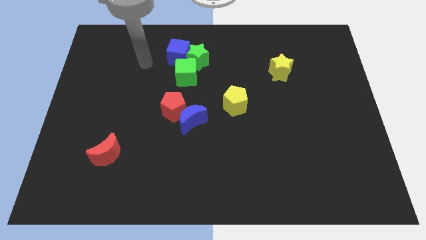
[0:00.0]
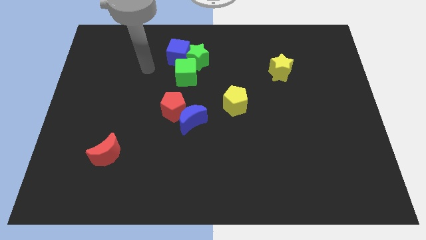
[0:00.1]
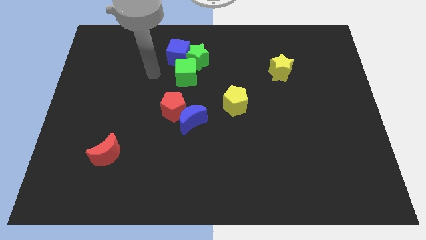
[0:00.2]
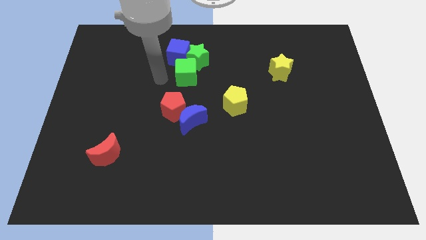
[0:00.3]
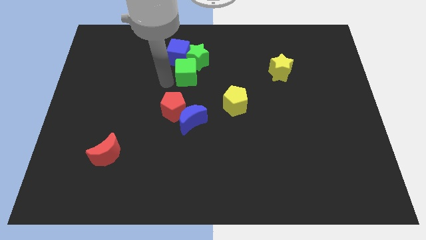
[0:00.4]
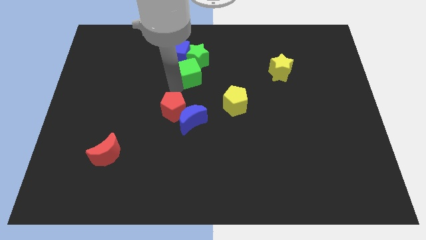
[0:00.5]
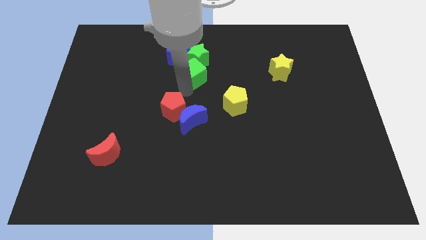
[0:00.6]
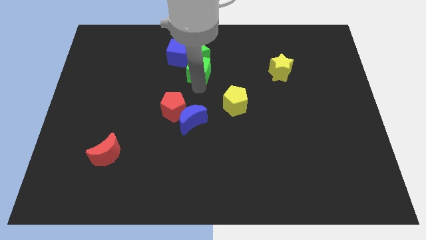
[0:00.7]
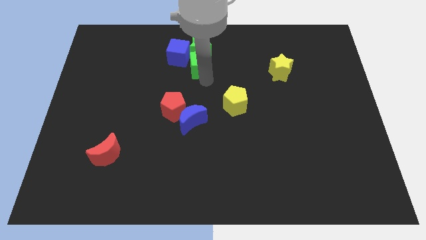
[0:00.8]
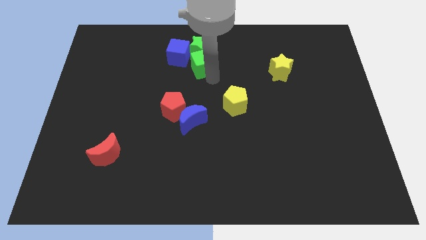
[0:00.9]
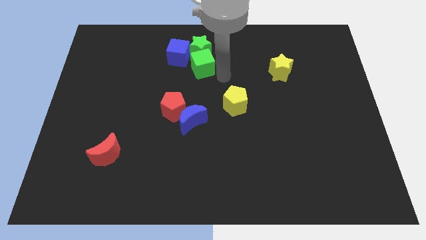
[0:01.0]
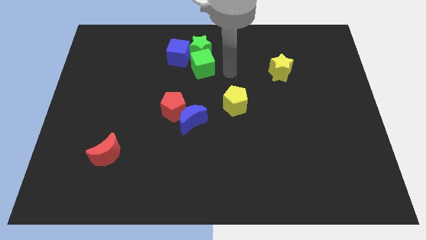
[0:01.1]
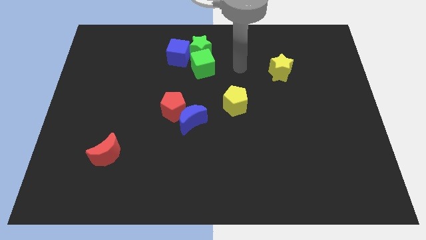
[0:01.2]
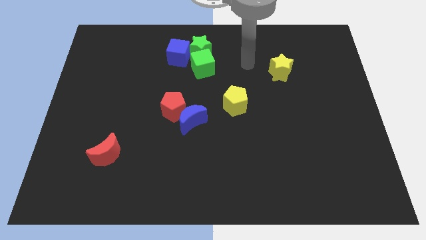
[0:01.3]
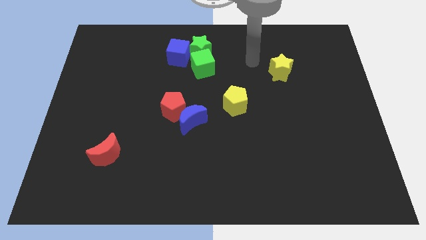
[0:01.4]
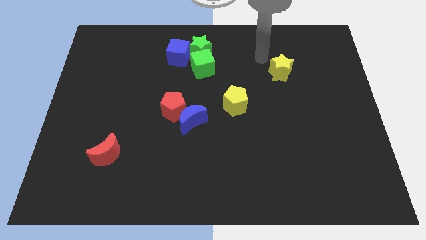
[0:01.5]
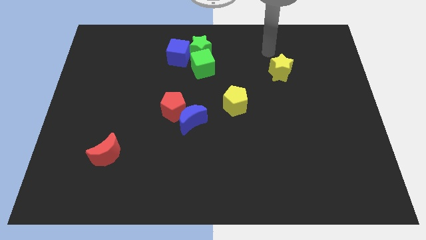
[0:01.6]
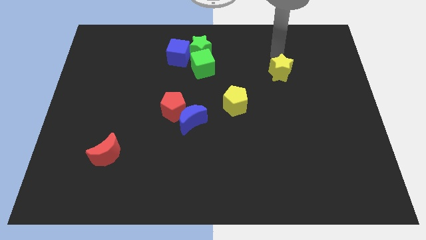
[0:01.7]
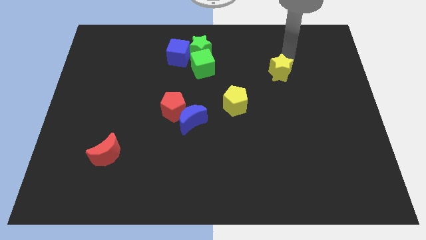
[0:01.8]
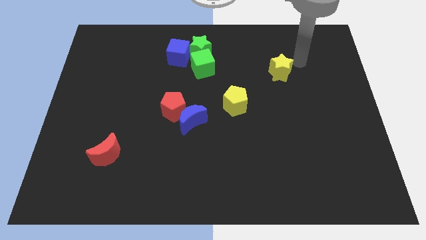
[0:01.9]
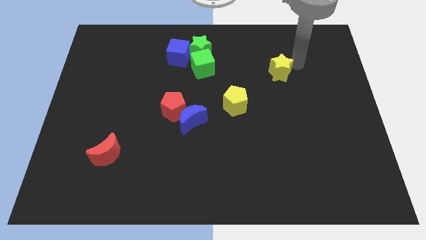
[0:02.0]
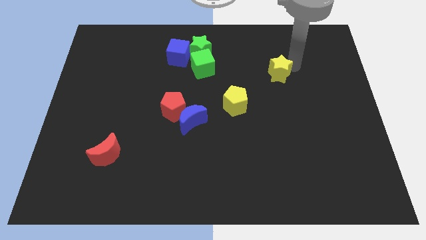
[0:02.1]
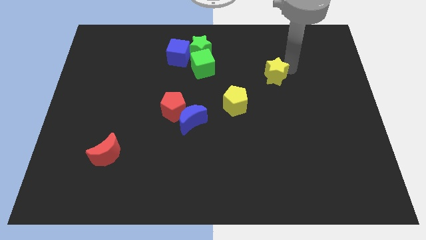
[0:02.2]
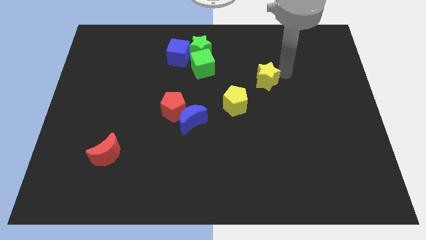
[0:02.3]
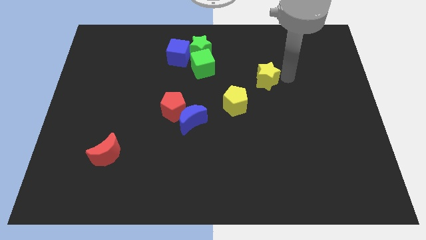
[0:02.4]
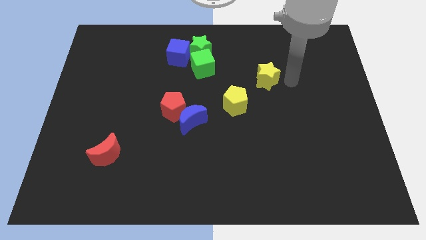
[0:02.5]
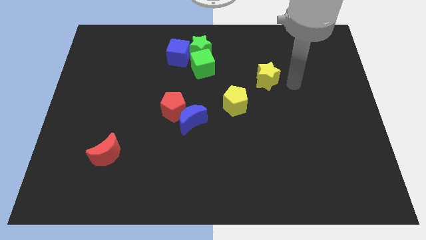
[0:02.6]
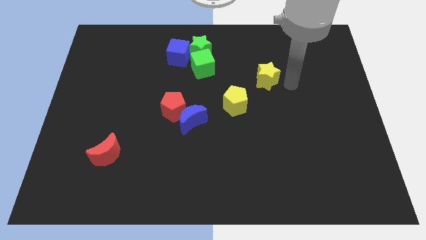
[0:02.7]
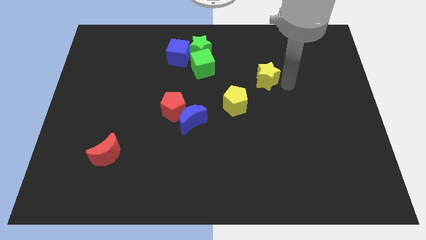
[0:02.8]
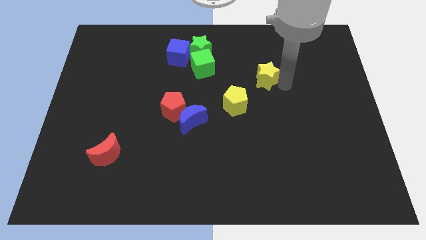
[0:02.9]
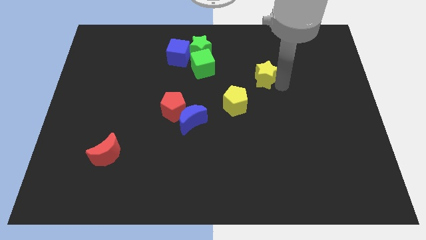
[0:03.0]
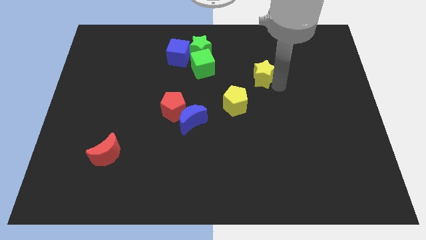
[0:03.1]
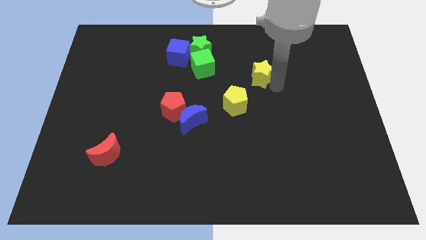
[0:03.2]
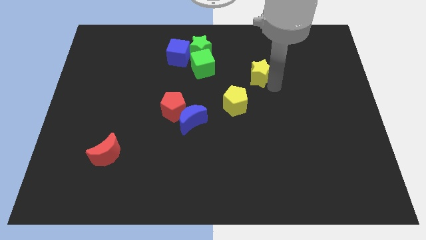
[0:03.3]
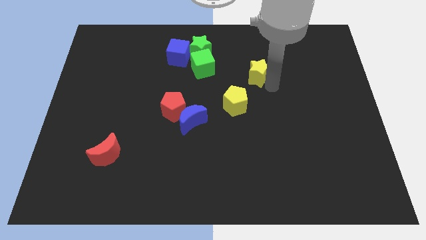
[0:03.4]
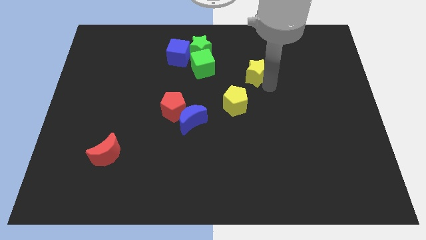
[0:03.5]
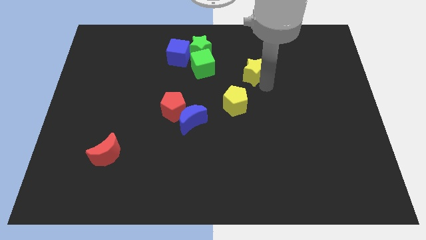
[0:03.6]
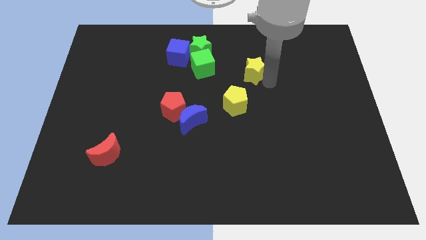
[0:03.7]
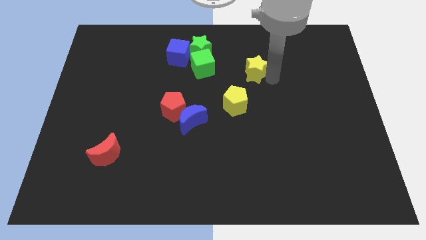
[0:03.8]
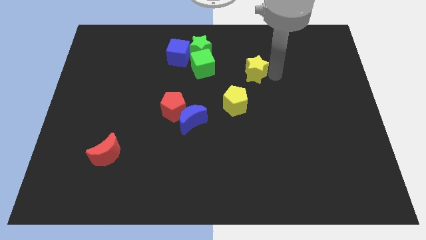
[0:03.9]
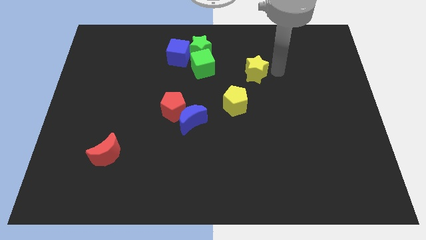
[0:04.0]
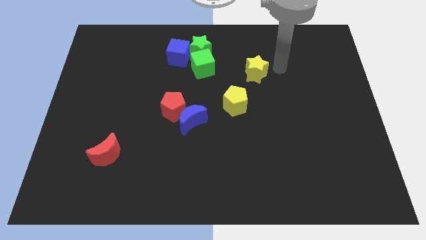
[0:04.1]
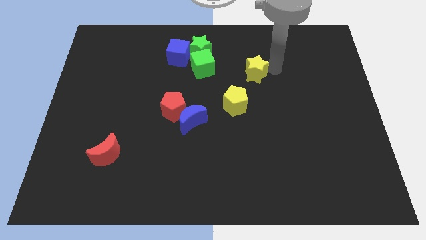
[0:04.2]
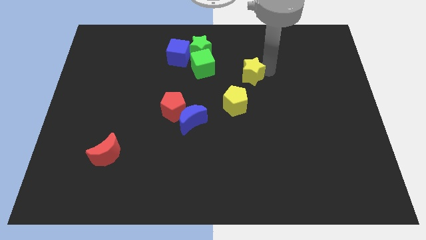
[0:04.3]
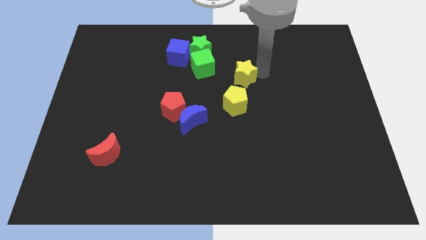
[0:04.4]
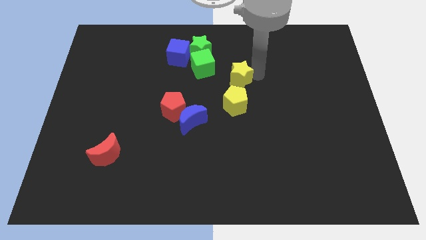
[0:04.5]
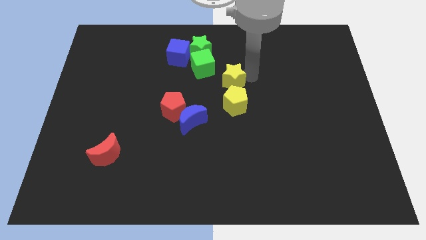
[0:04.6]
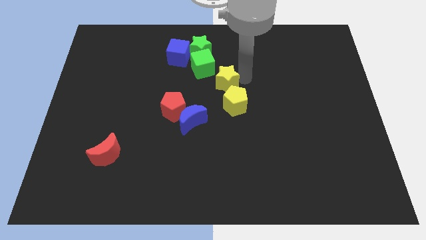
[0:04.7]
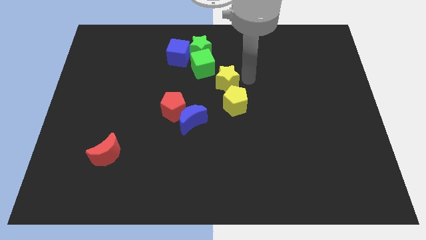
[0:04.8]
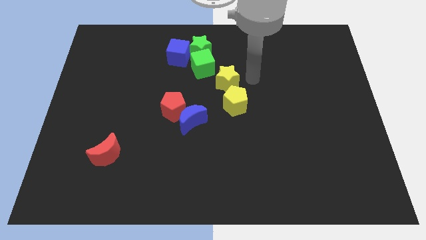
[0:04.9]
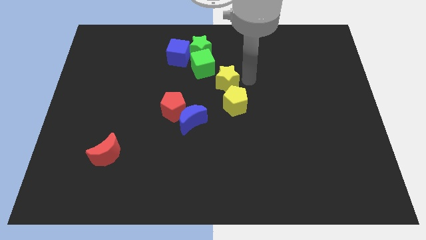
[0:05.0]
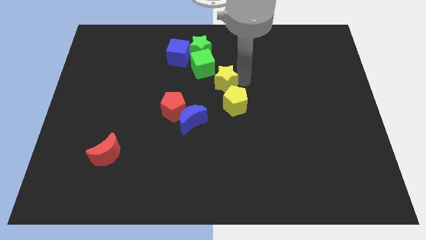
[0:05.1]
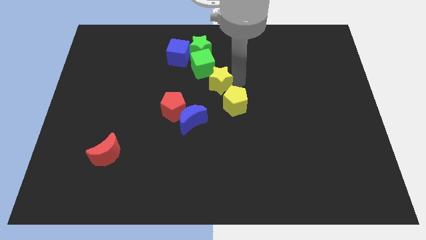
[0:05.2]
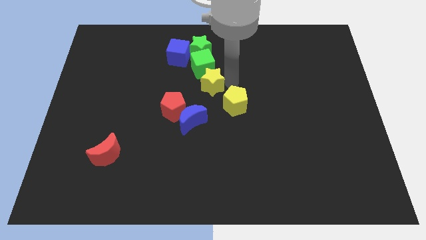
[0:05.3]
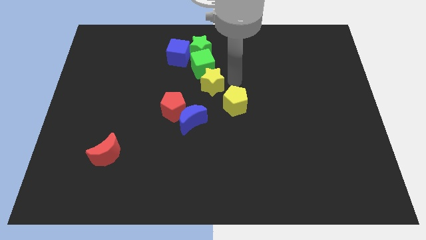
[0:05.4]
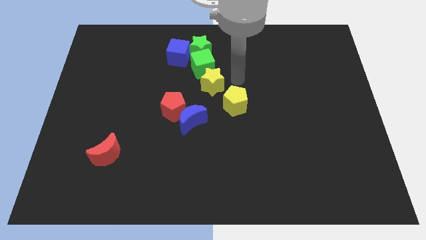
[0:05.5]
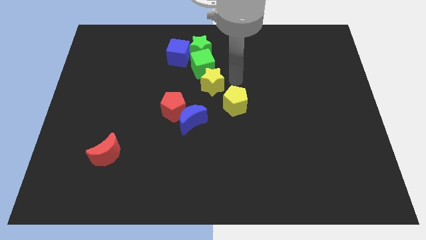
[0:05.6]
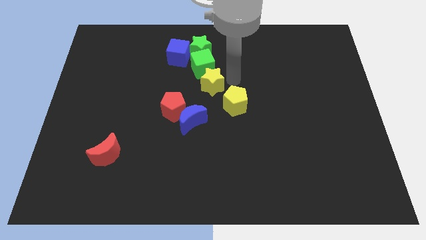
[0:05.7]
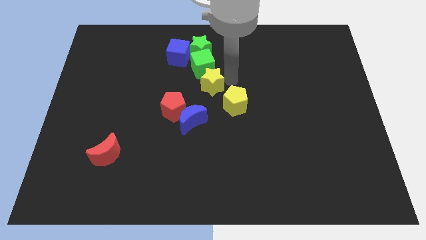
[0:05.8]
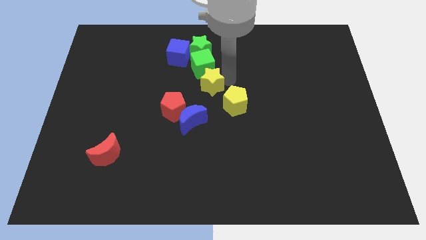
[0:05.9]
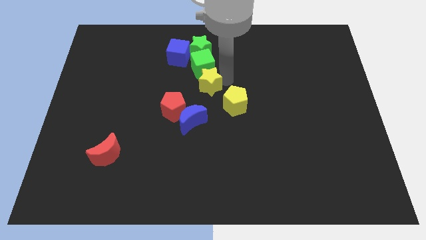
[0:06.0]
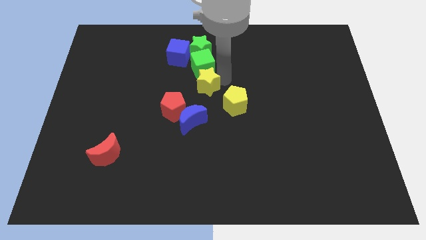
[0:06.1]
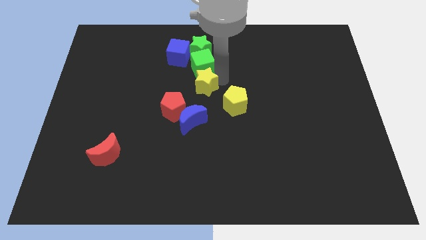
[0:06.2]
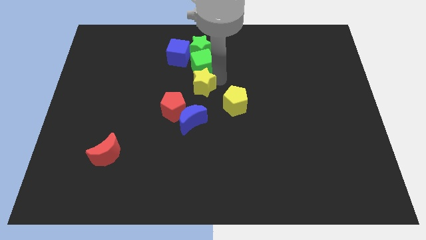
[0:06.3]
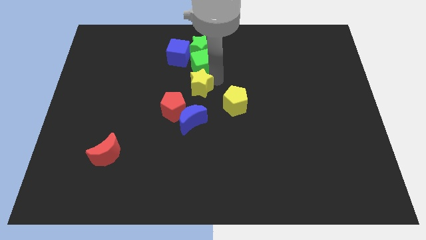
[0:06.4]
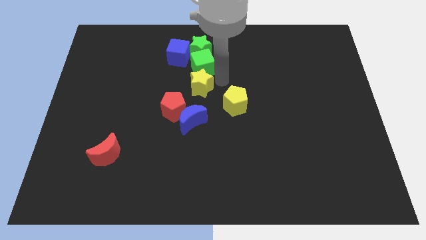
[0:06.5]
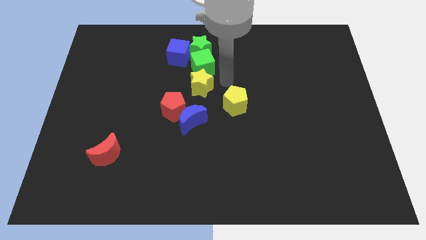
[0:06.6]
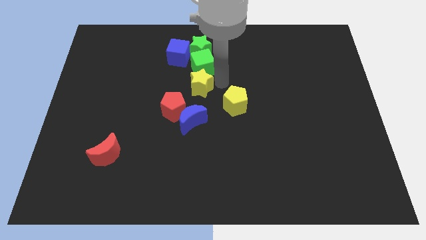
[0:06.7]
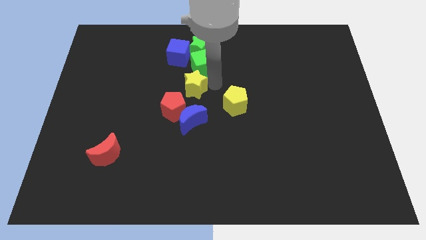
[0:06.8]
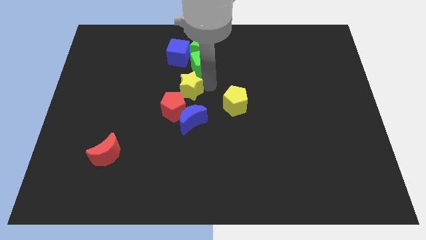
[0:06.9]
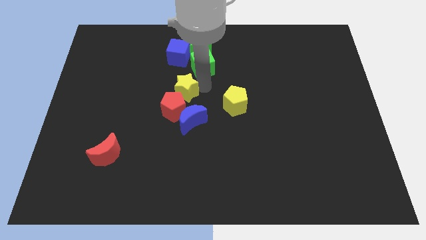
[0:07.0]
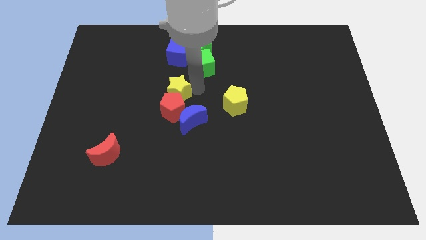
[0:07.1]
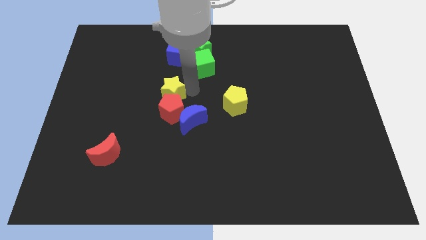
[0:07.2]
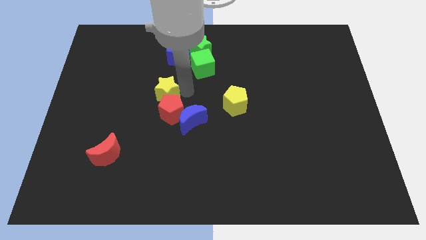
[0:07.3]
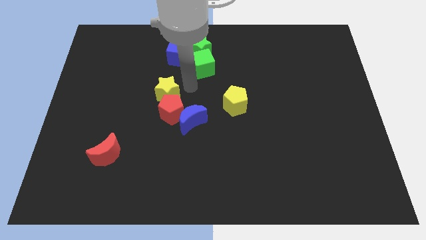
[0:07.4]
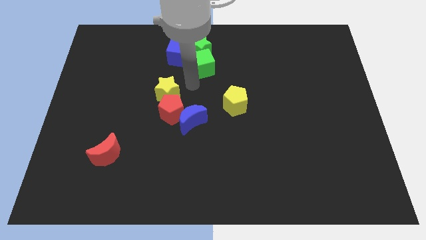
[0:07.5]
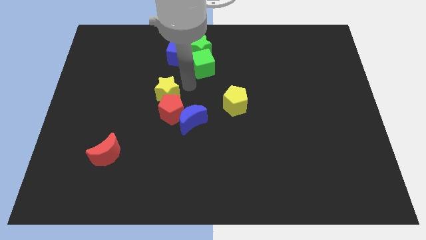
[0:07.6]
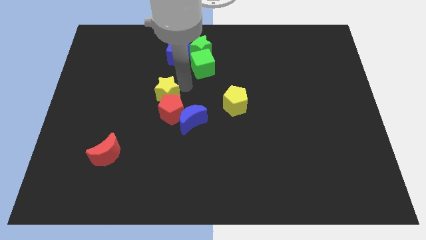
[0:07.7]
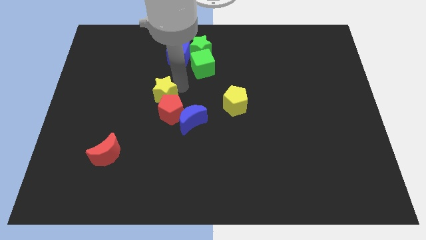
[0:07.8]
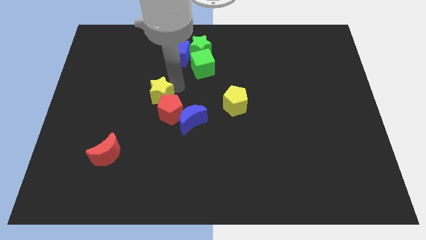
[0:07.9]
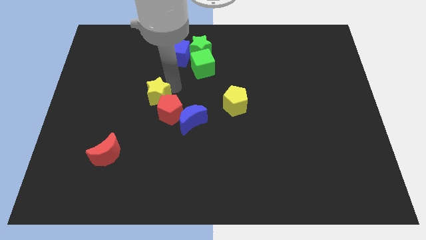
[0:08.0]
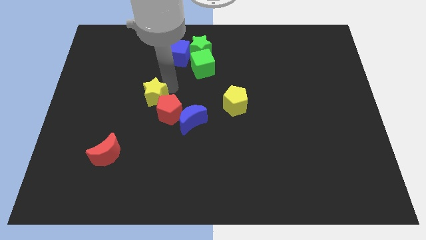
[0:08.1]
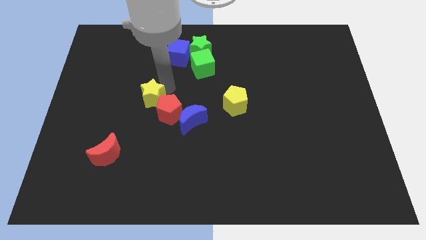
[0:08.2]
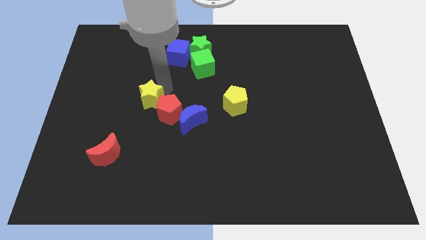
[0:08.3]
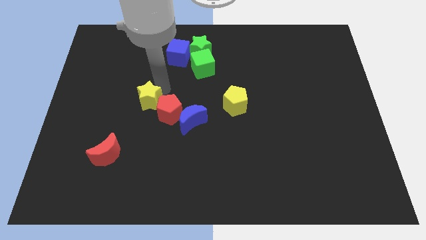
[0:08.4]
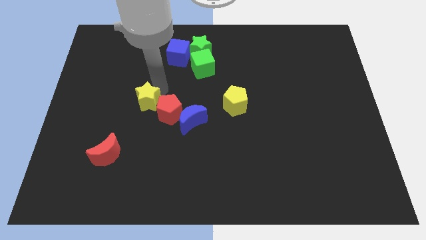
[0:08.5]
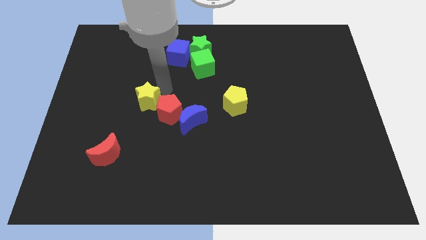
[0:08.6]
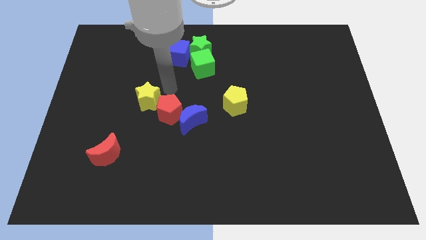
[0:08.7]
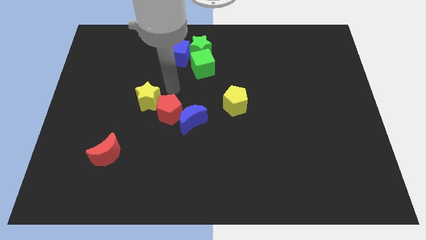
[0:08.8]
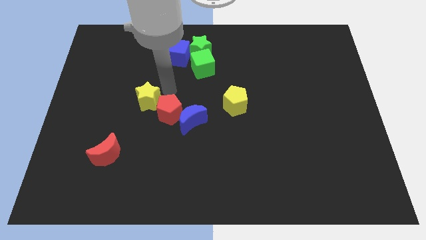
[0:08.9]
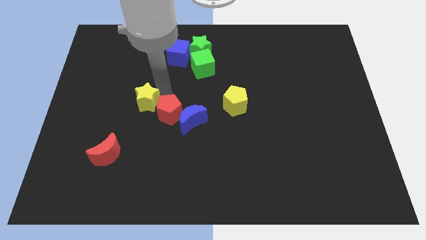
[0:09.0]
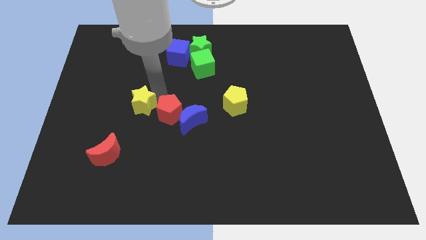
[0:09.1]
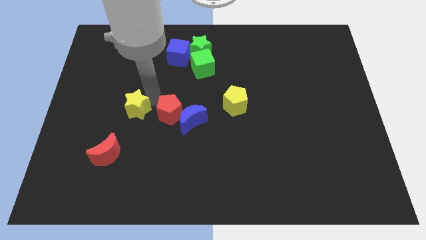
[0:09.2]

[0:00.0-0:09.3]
put the yellow star to the top of the red moon
